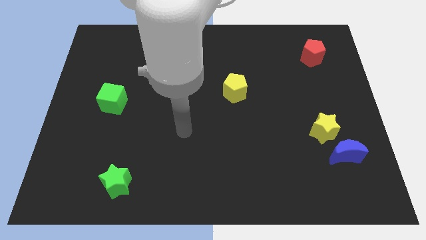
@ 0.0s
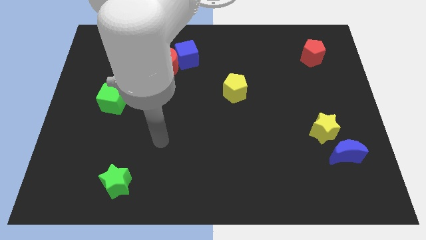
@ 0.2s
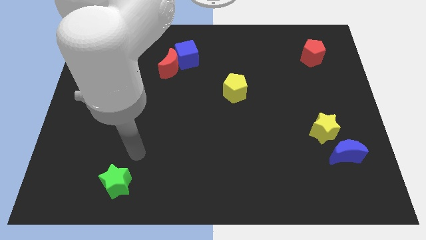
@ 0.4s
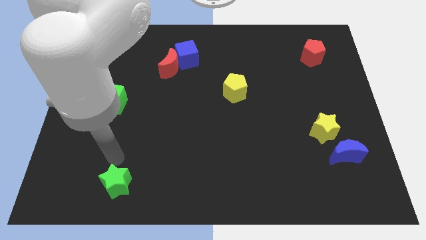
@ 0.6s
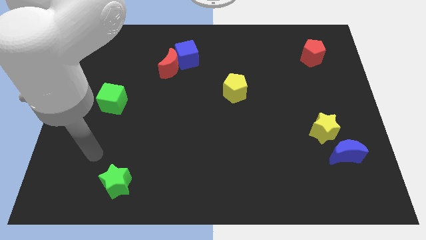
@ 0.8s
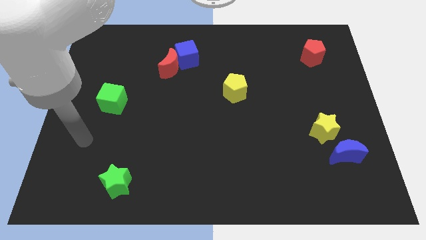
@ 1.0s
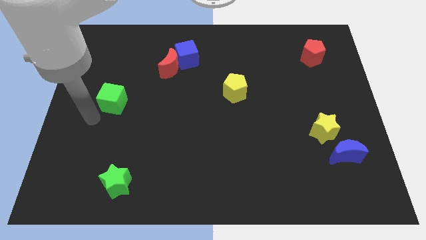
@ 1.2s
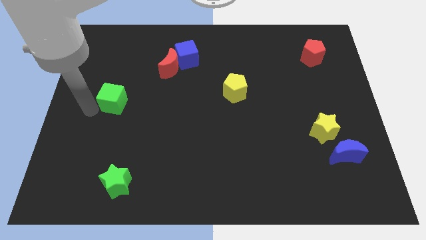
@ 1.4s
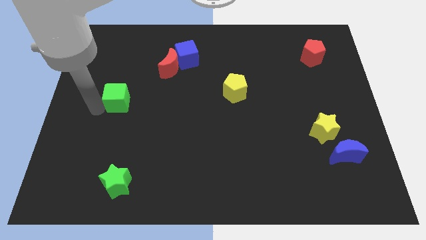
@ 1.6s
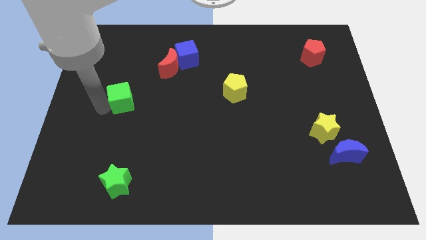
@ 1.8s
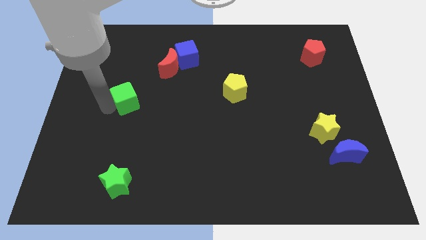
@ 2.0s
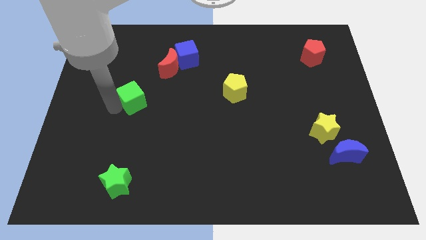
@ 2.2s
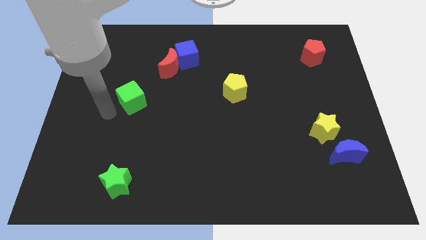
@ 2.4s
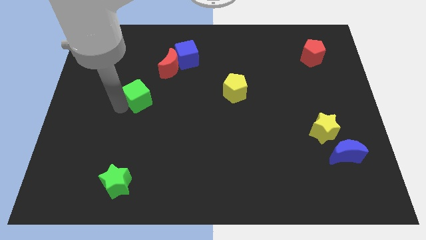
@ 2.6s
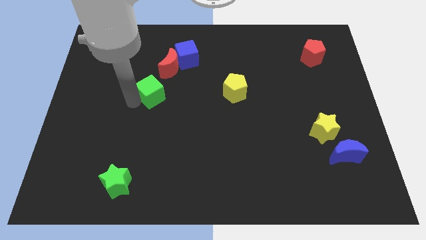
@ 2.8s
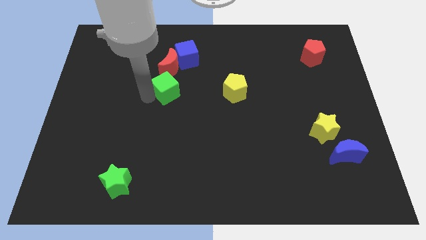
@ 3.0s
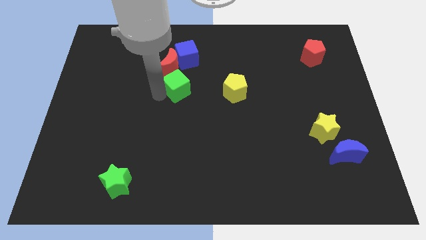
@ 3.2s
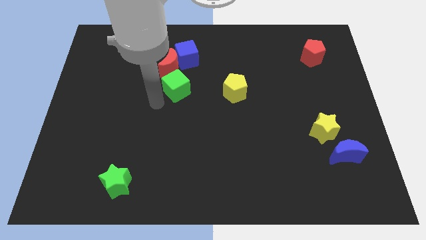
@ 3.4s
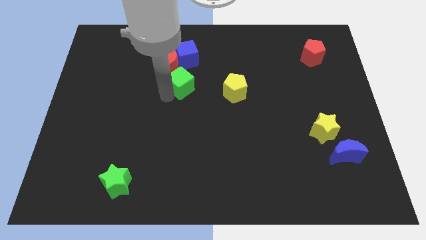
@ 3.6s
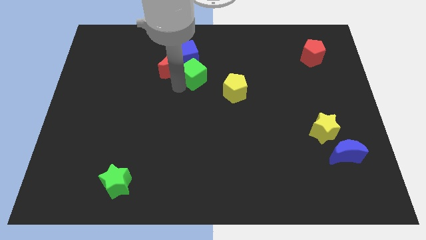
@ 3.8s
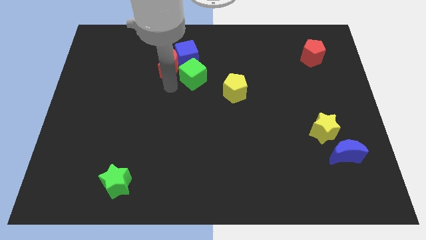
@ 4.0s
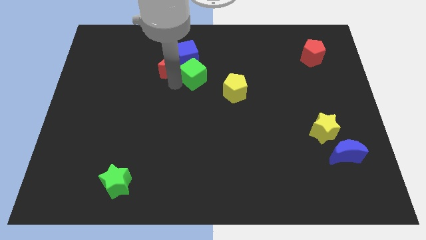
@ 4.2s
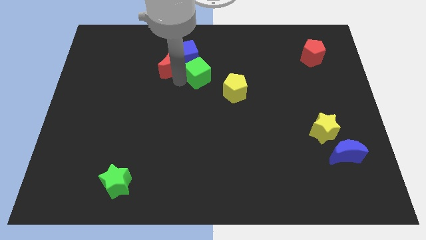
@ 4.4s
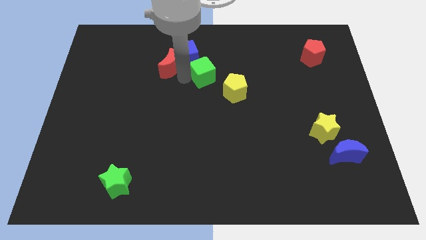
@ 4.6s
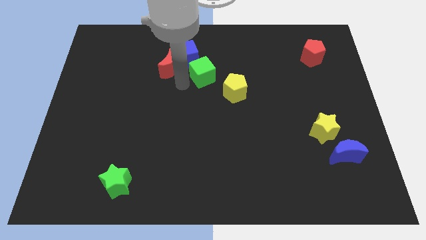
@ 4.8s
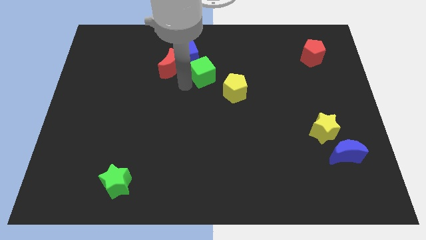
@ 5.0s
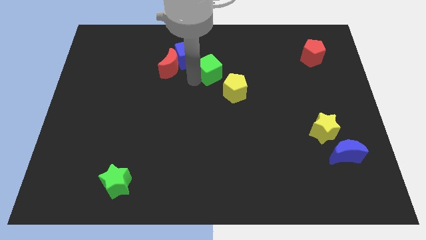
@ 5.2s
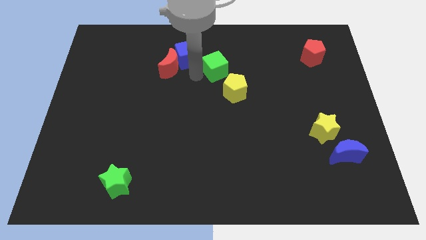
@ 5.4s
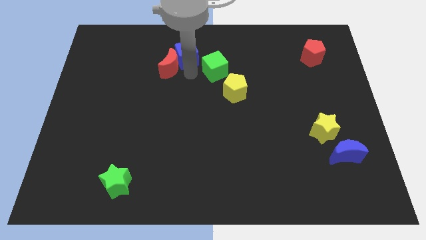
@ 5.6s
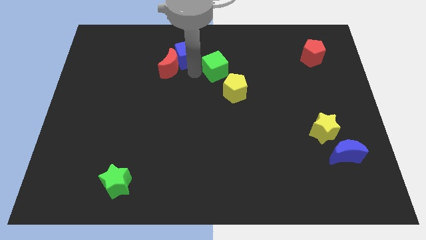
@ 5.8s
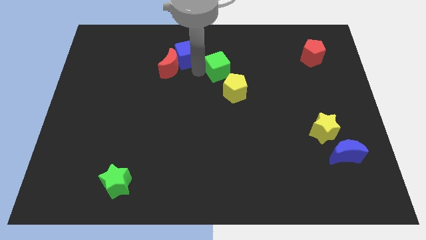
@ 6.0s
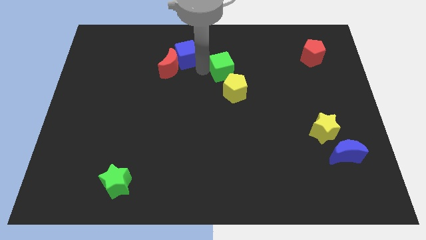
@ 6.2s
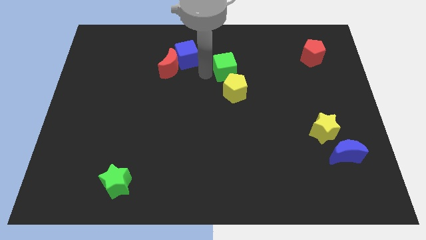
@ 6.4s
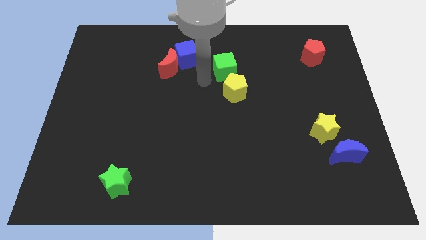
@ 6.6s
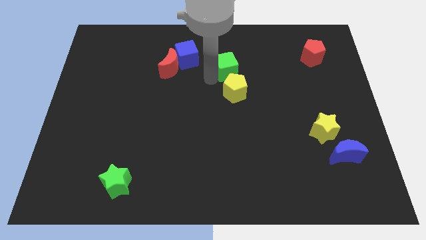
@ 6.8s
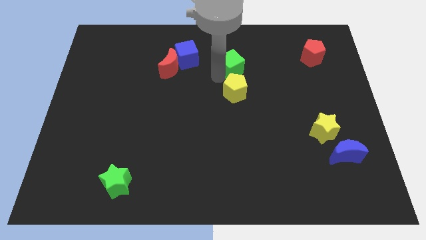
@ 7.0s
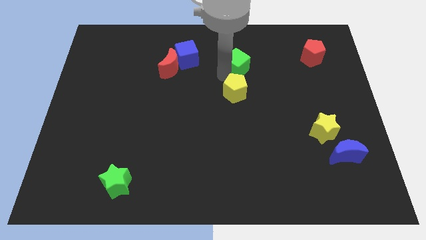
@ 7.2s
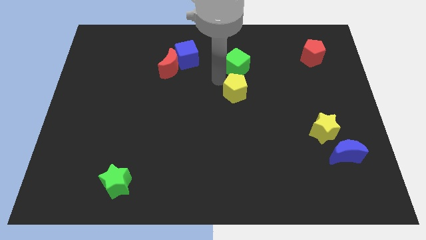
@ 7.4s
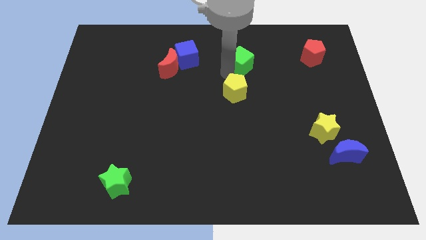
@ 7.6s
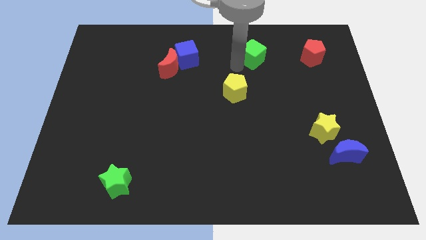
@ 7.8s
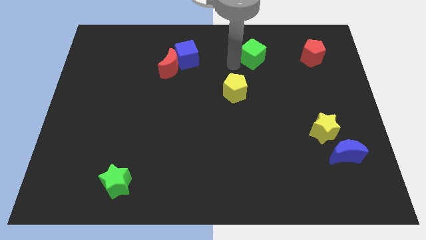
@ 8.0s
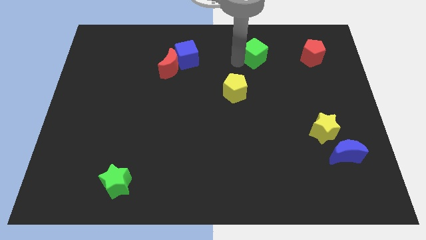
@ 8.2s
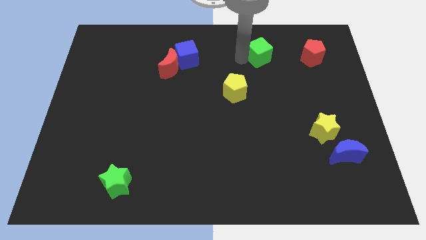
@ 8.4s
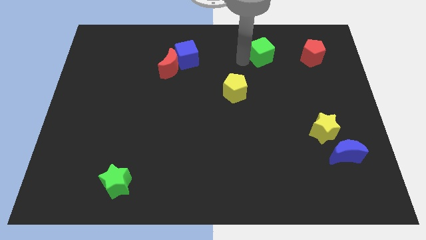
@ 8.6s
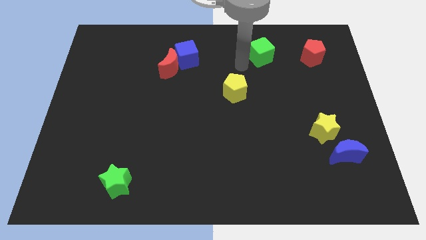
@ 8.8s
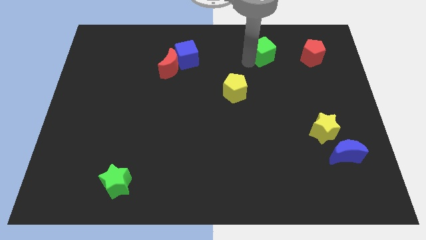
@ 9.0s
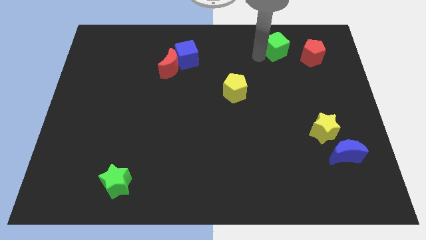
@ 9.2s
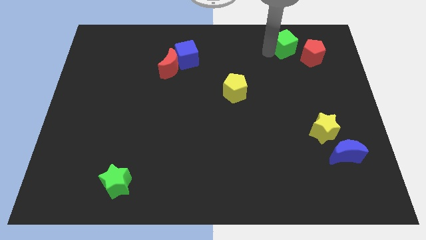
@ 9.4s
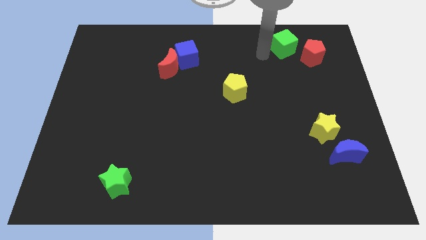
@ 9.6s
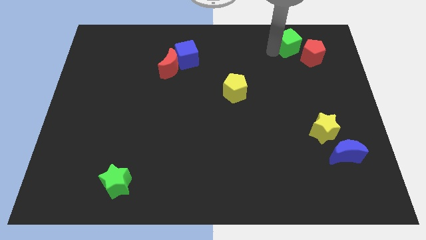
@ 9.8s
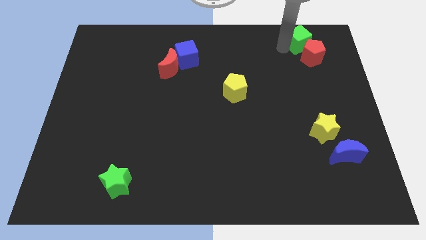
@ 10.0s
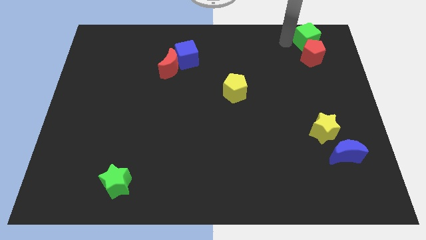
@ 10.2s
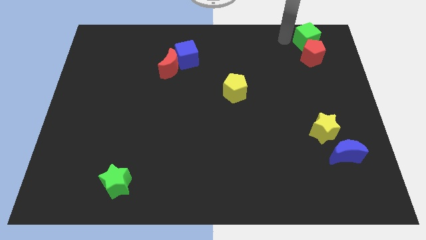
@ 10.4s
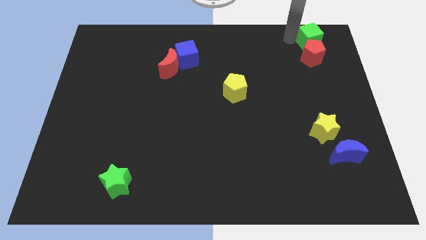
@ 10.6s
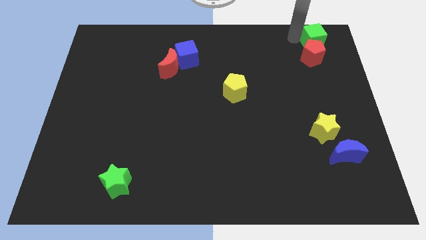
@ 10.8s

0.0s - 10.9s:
slide the green cube to the top right of the board

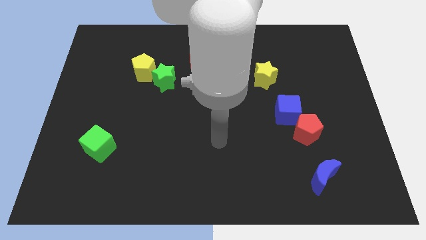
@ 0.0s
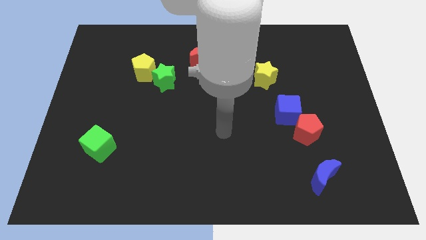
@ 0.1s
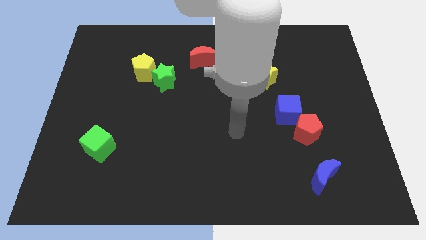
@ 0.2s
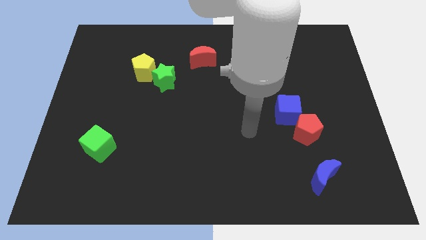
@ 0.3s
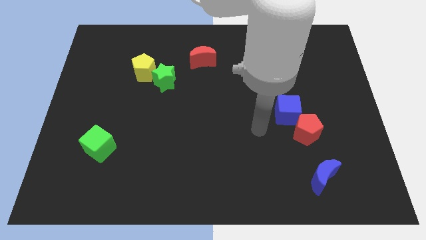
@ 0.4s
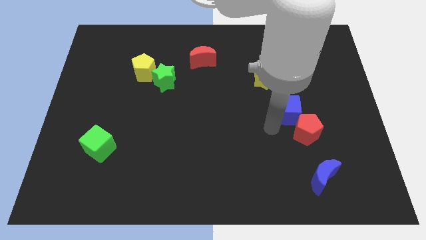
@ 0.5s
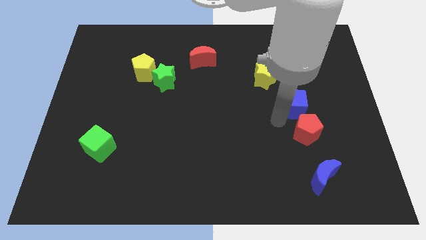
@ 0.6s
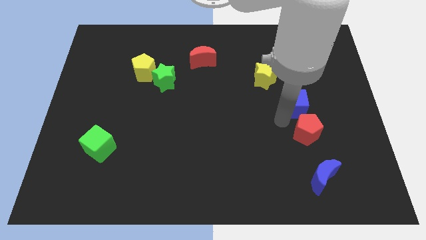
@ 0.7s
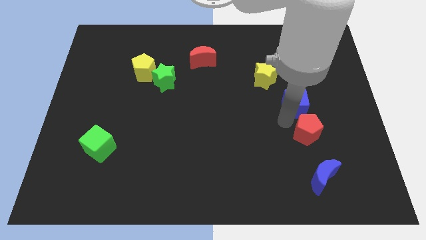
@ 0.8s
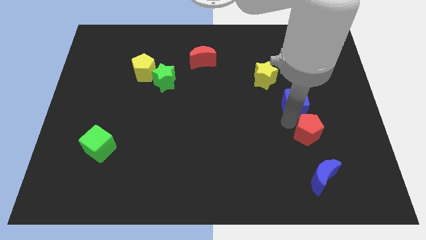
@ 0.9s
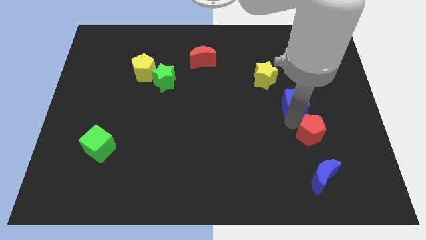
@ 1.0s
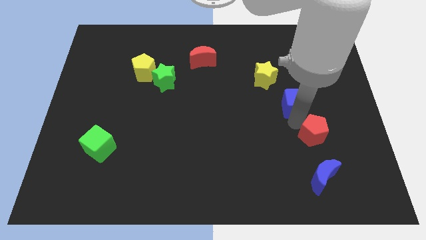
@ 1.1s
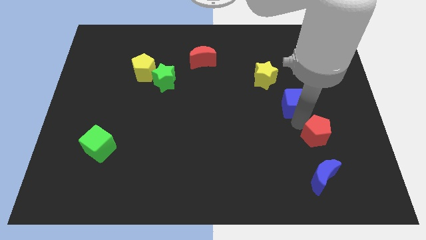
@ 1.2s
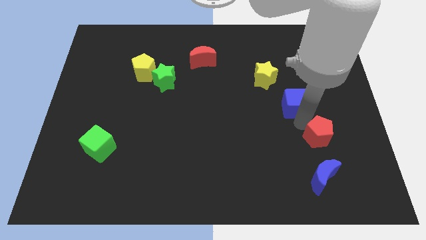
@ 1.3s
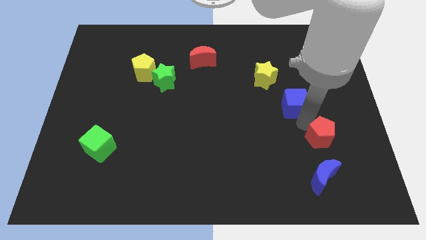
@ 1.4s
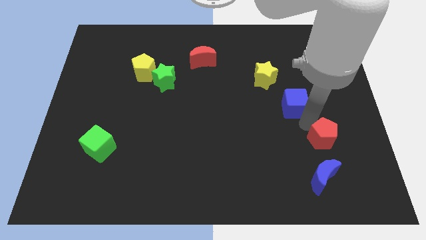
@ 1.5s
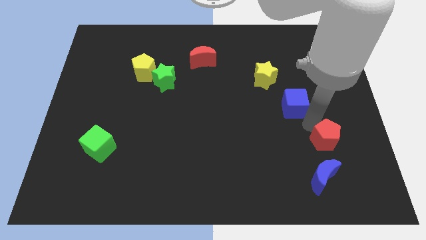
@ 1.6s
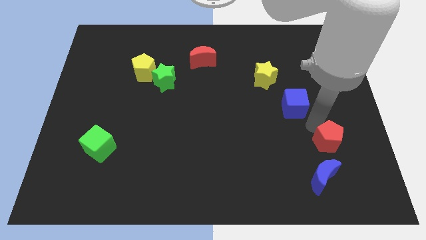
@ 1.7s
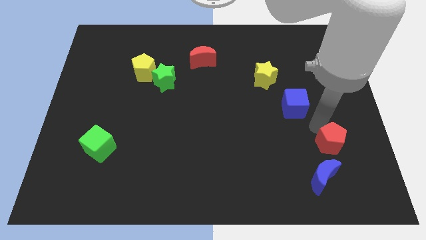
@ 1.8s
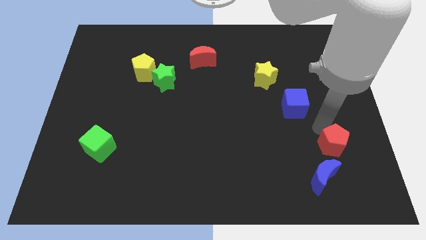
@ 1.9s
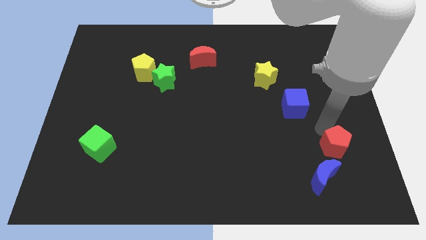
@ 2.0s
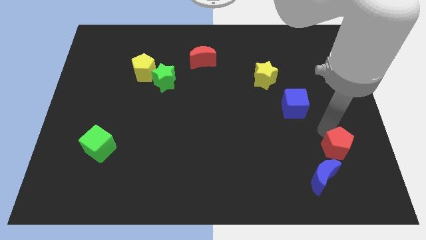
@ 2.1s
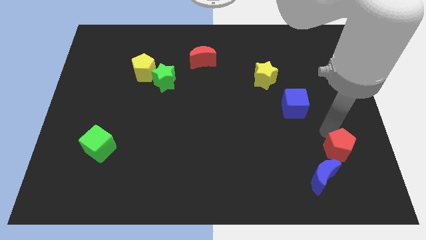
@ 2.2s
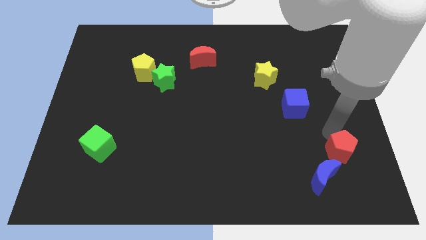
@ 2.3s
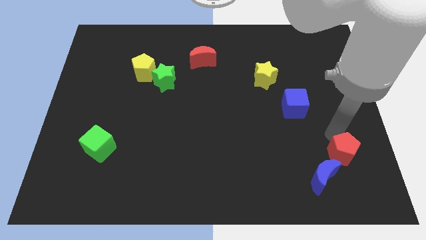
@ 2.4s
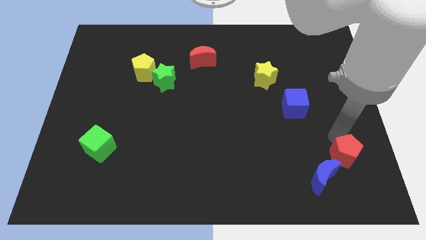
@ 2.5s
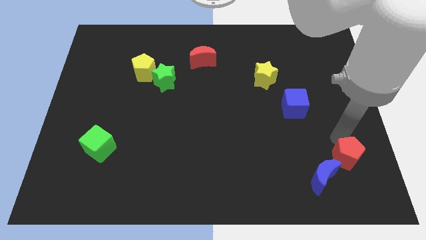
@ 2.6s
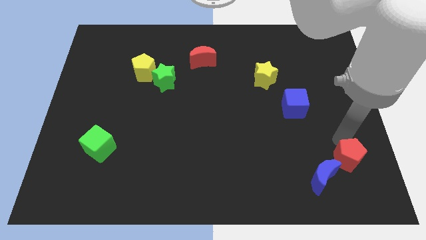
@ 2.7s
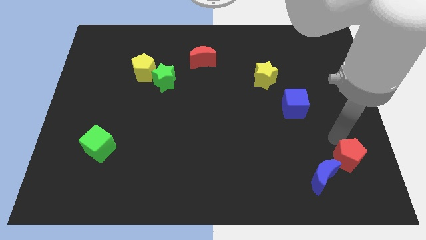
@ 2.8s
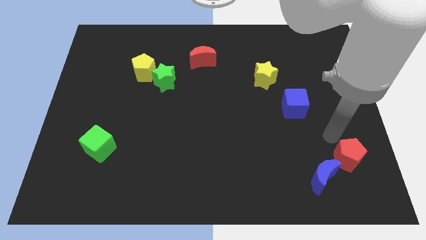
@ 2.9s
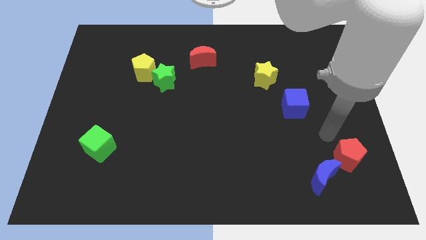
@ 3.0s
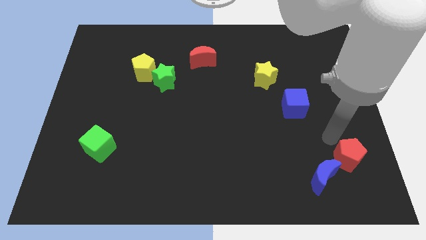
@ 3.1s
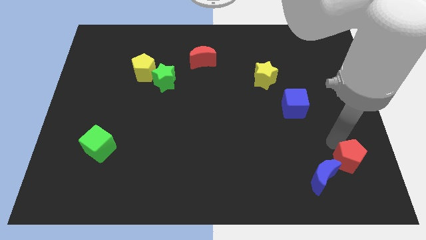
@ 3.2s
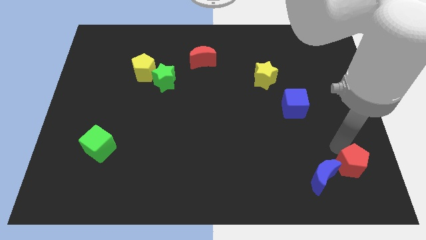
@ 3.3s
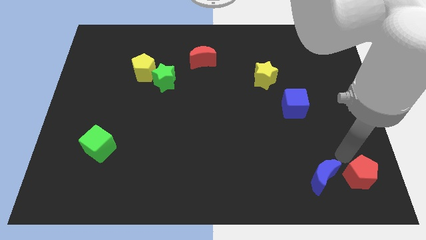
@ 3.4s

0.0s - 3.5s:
put the red pentagon to the bottom right
